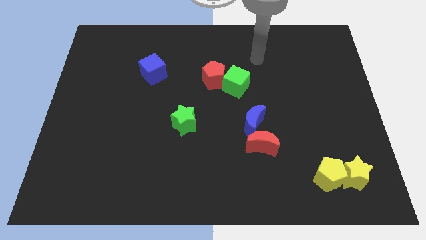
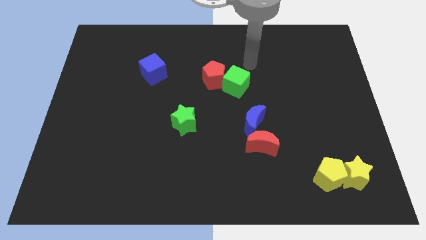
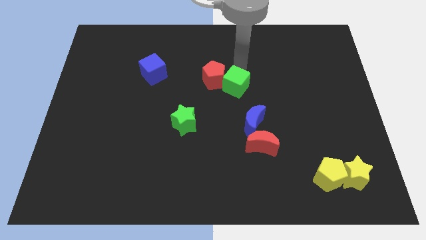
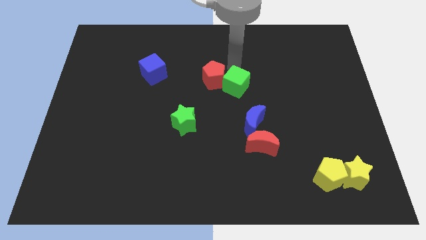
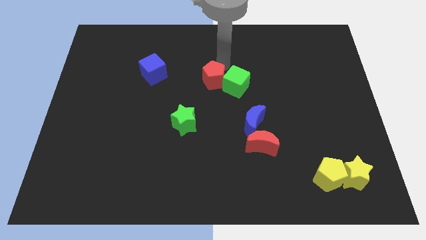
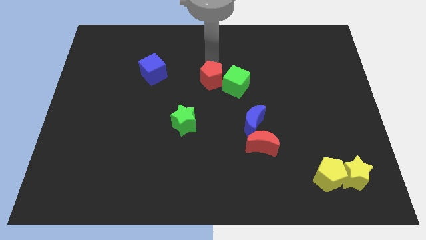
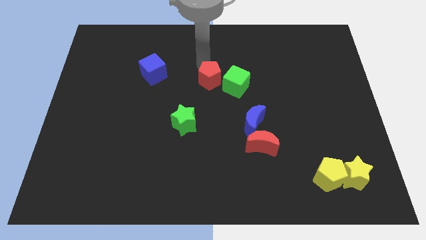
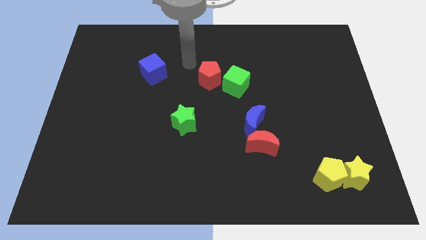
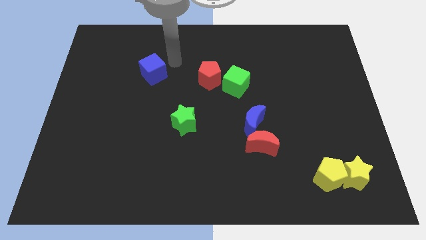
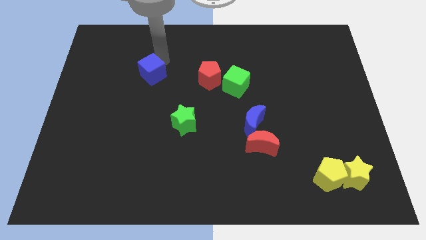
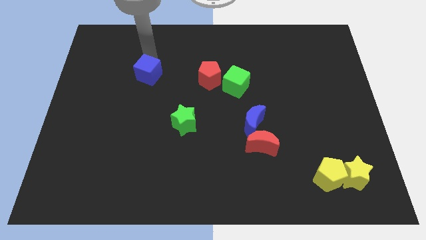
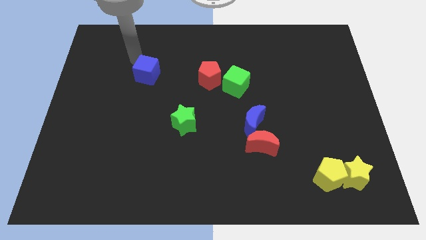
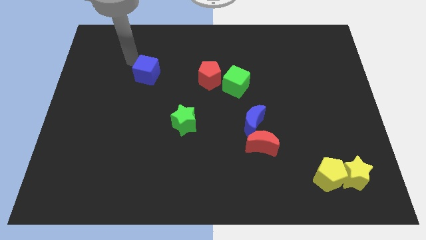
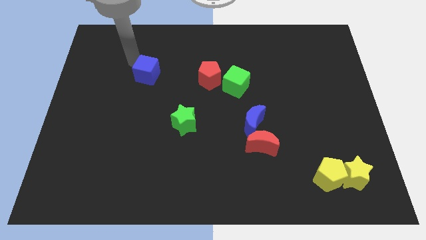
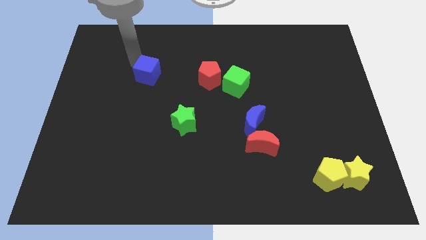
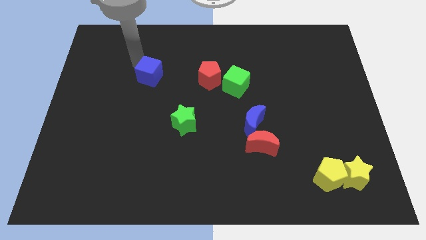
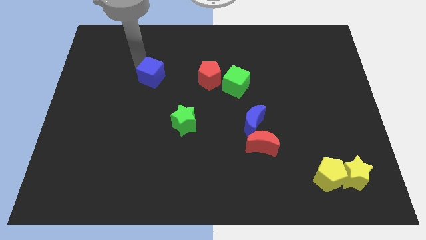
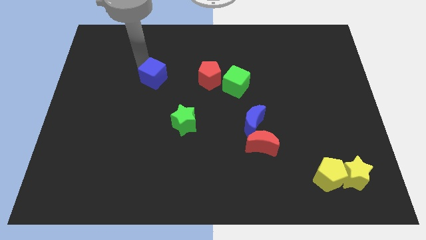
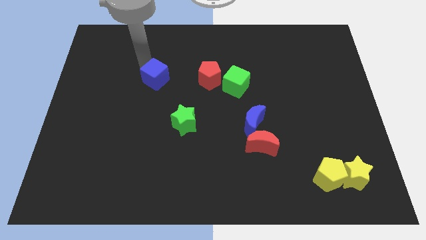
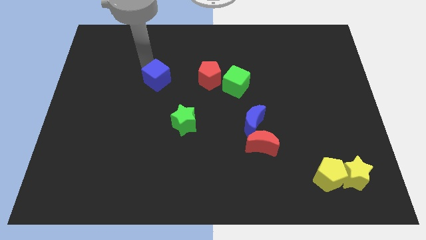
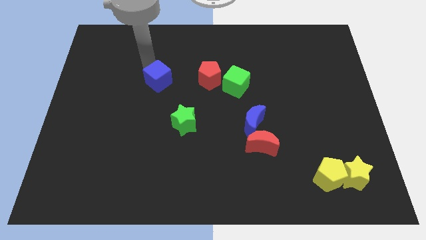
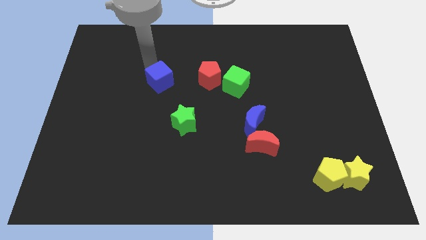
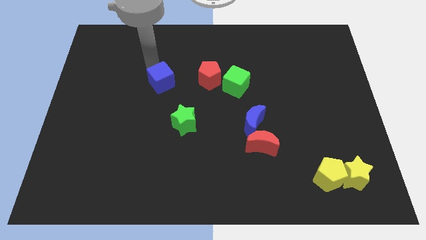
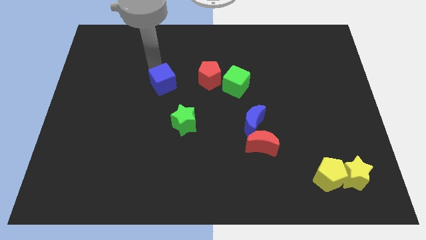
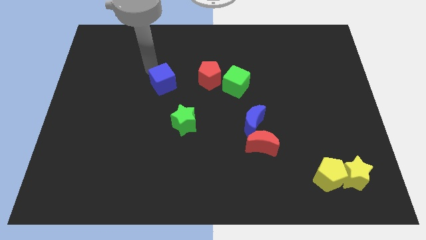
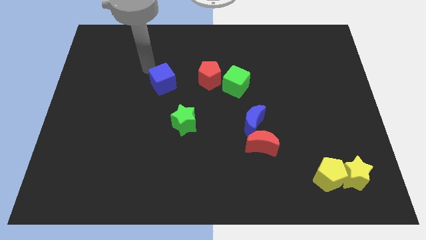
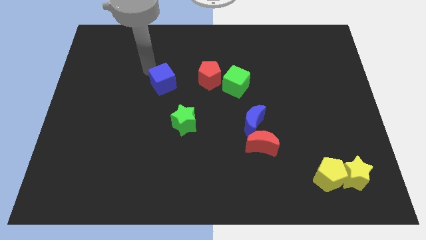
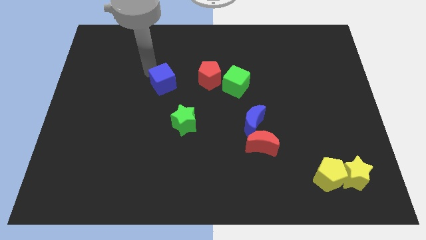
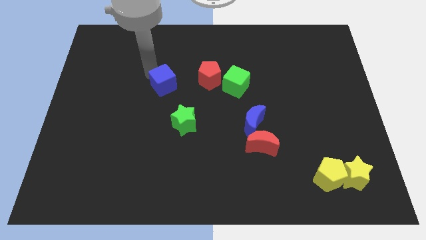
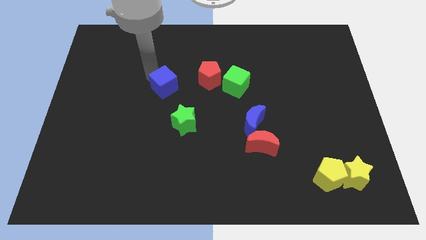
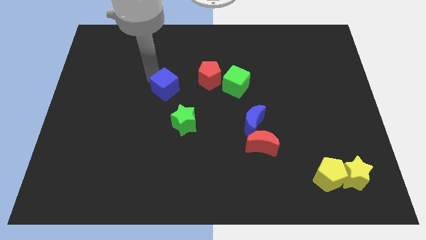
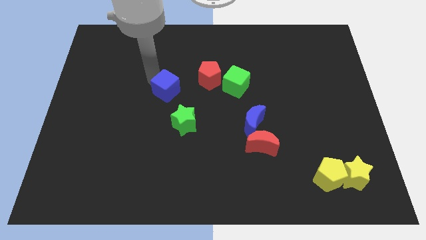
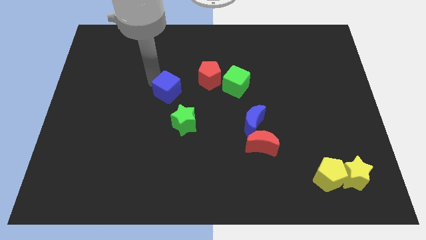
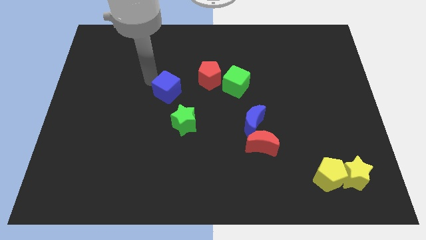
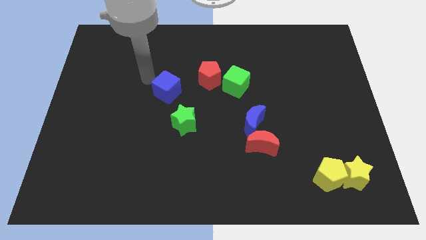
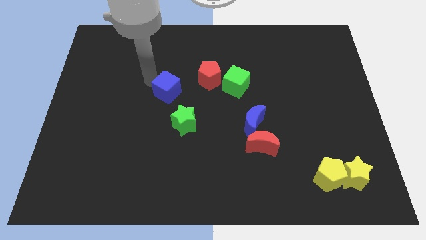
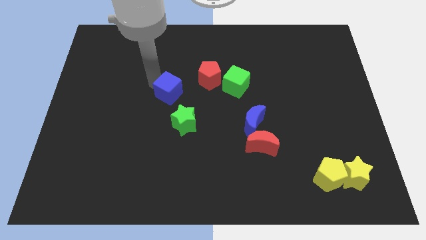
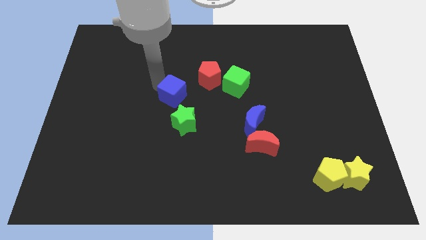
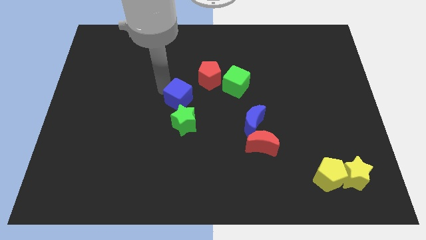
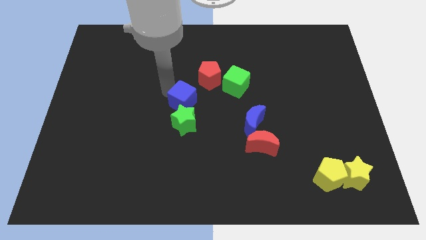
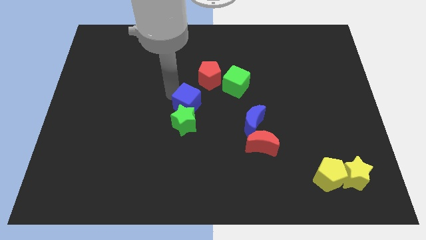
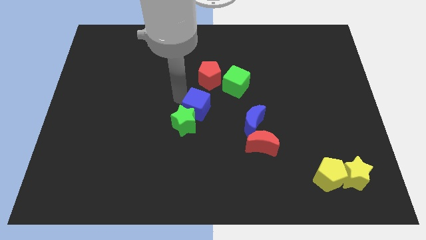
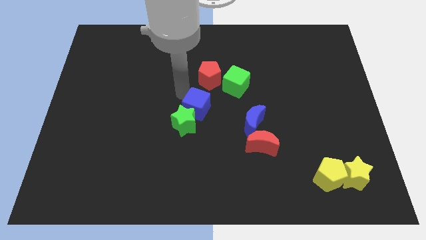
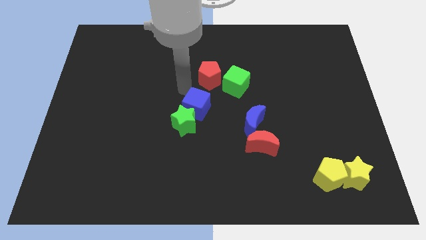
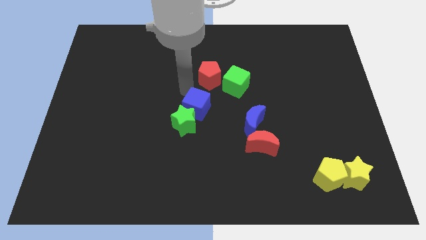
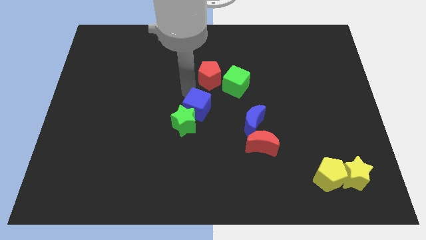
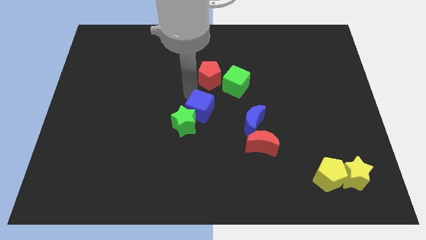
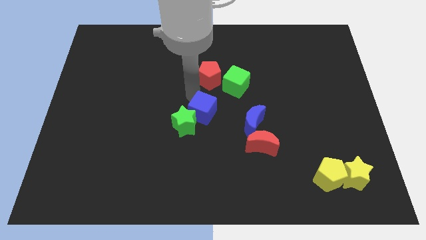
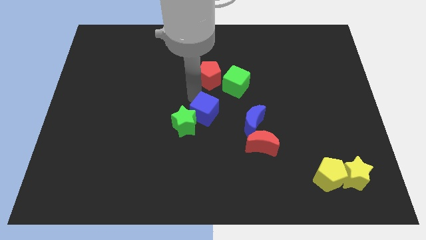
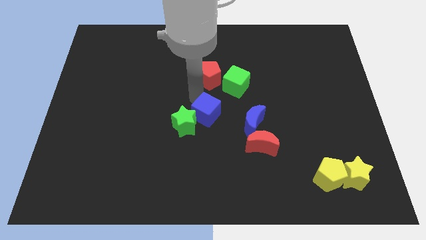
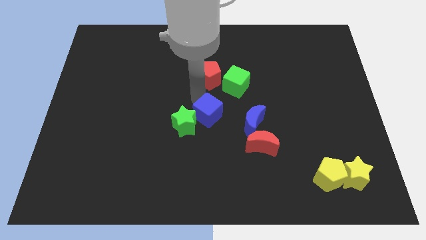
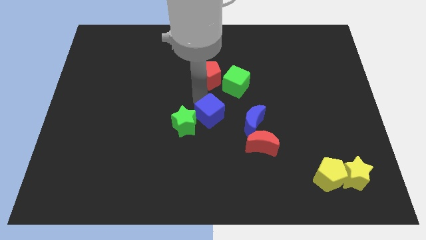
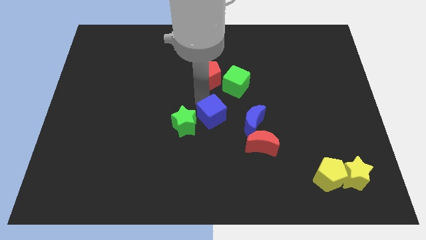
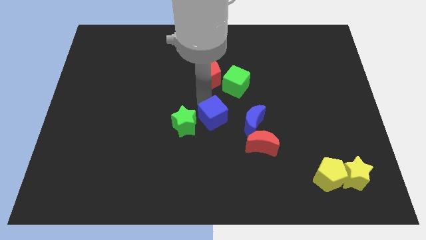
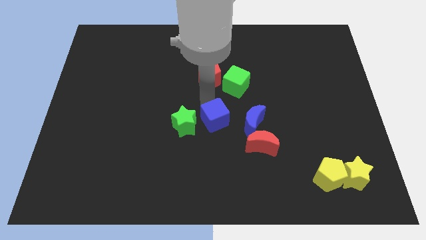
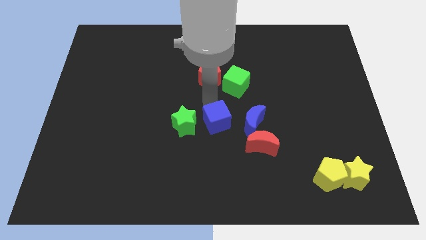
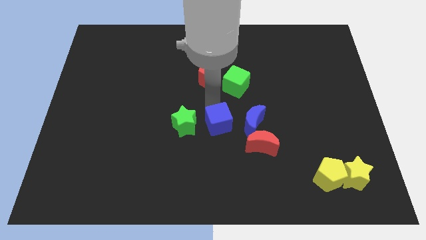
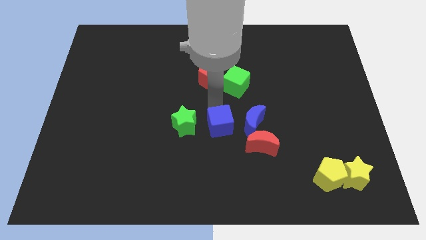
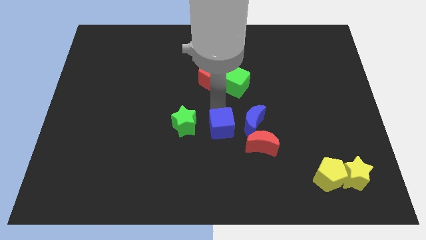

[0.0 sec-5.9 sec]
slide the blue cube to the left side of the red moon

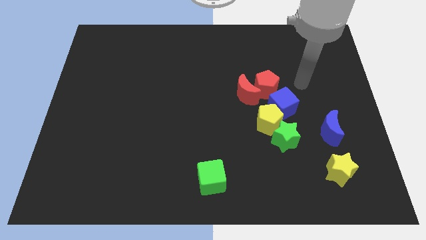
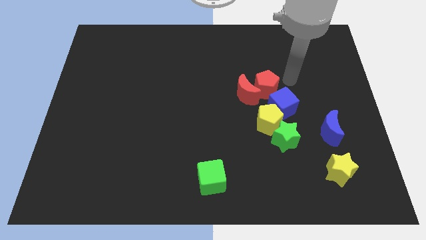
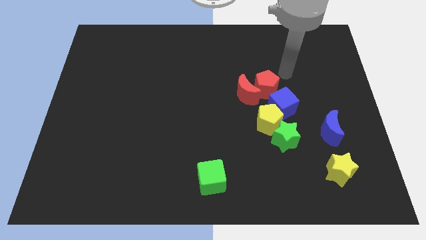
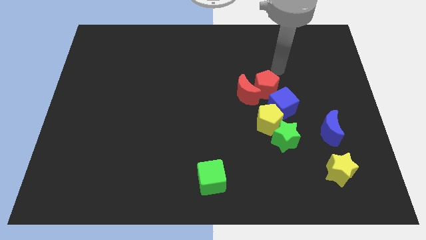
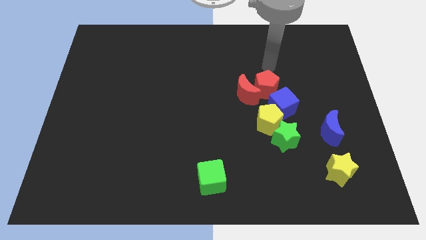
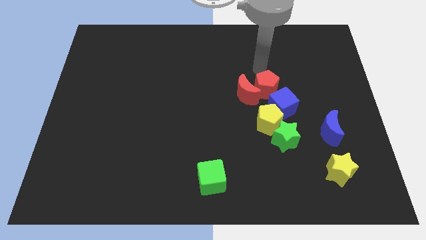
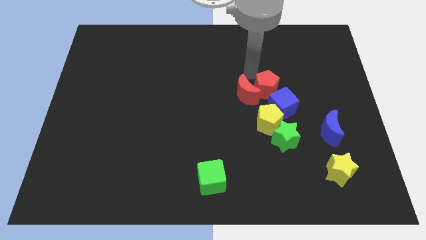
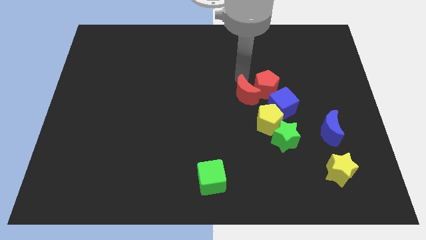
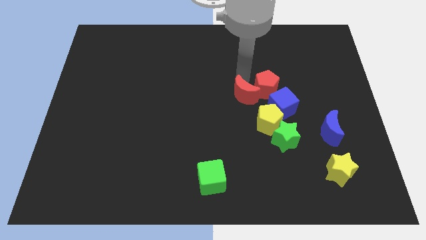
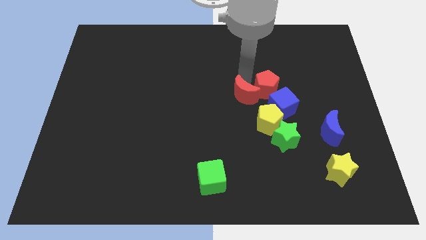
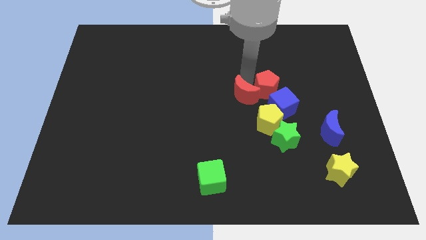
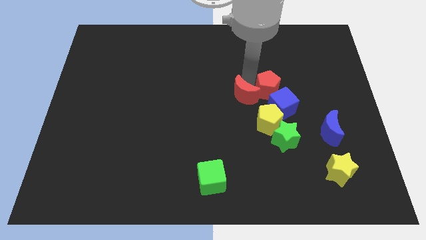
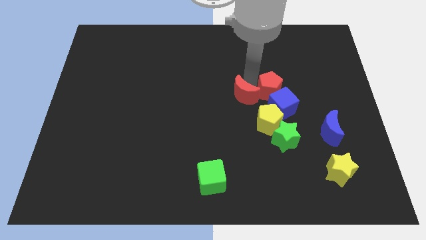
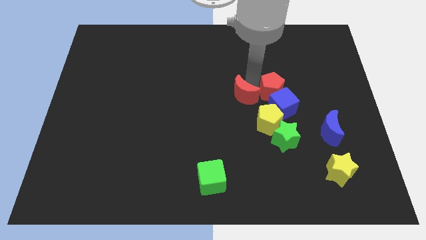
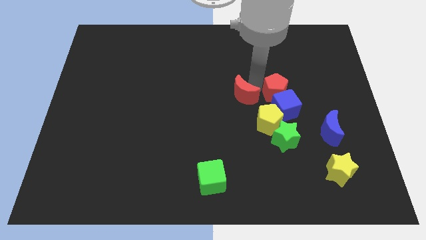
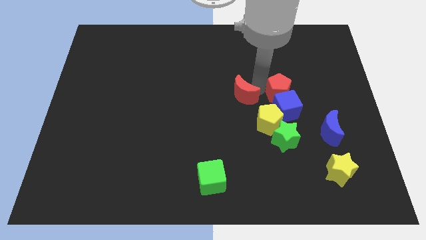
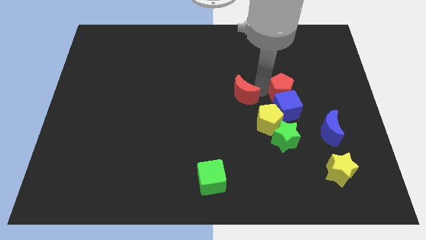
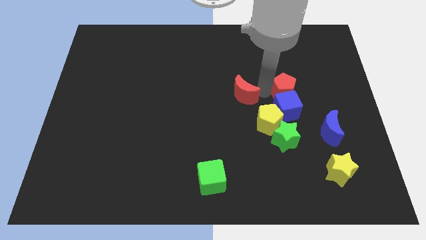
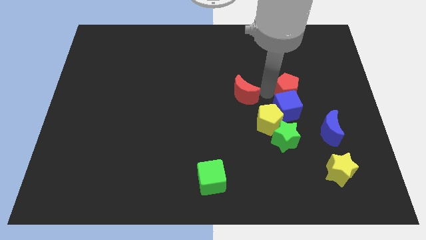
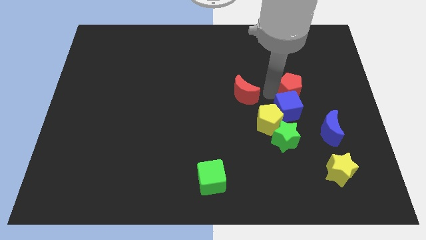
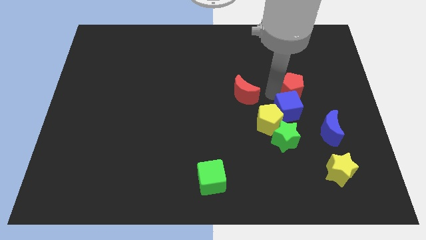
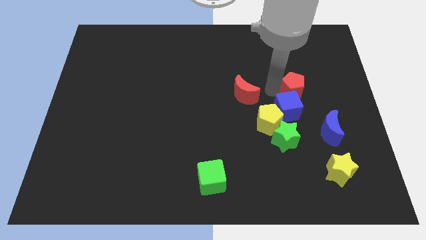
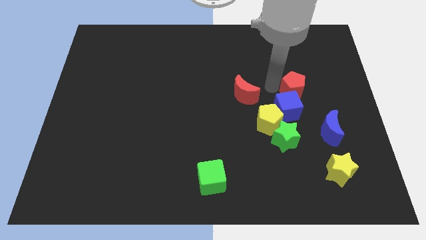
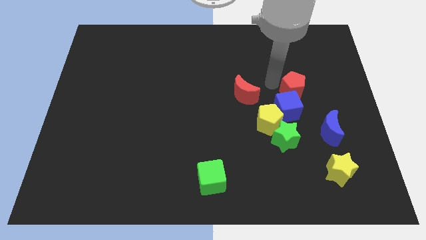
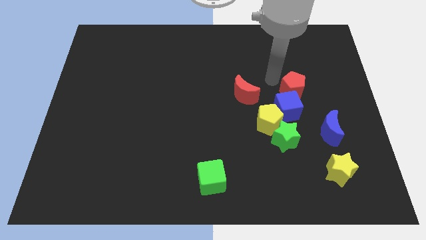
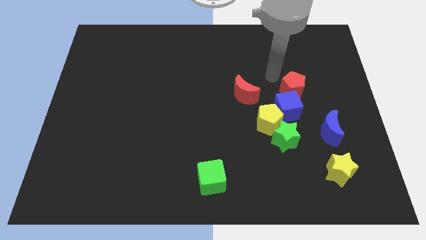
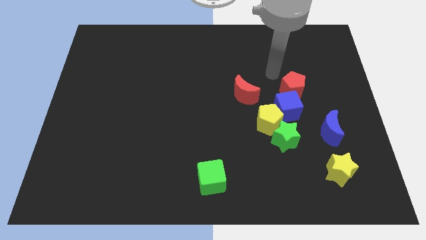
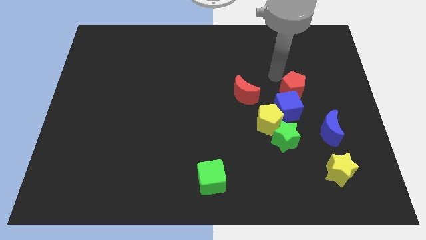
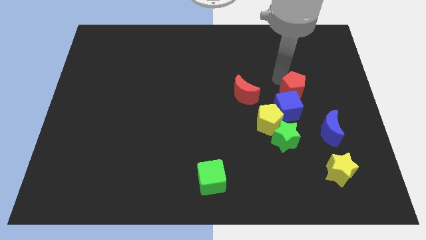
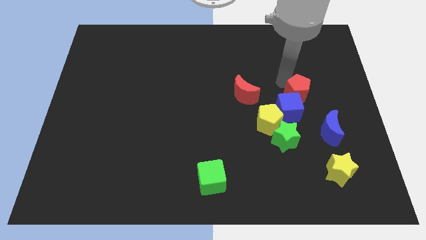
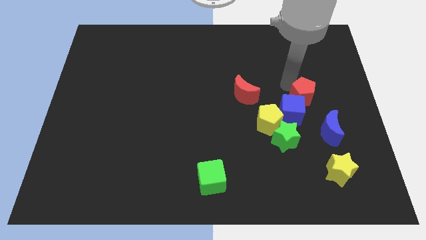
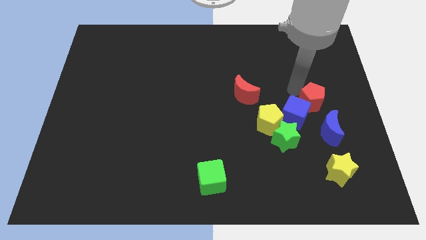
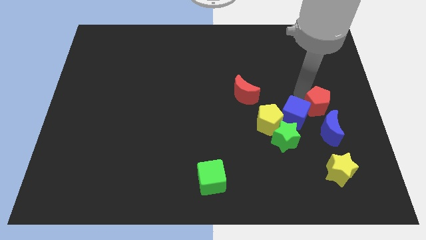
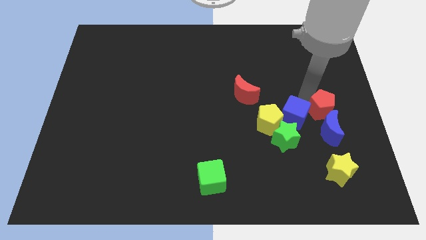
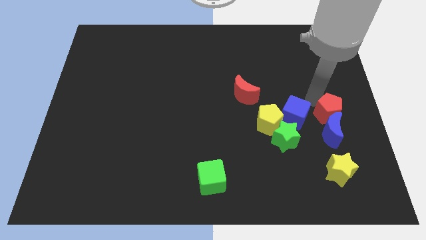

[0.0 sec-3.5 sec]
slide the red pentagon to the top side of the yellow star
